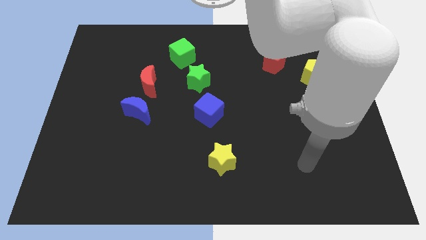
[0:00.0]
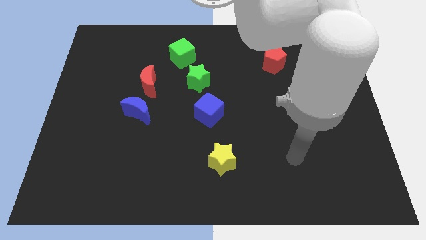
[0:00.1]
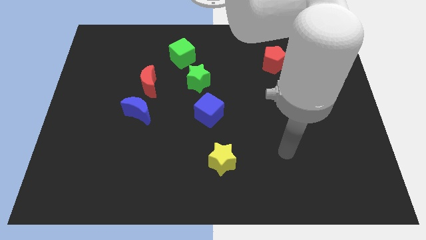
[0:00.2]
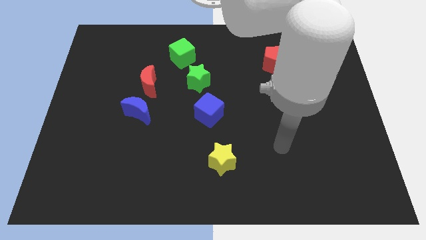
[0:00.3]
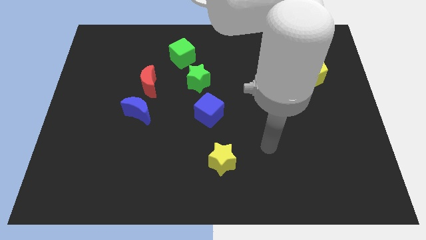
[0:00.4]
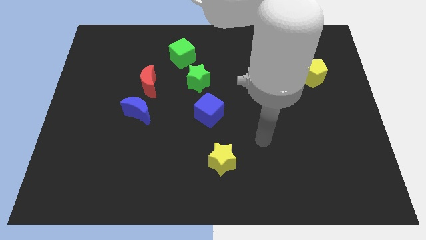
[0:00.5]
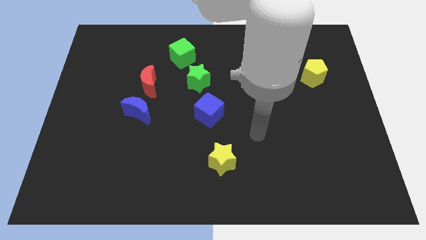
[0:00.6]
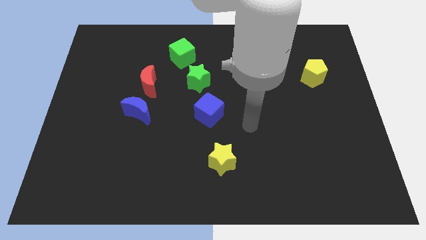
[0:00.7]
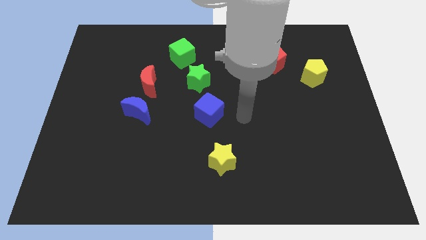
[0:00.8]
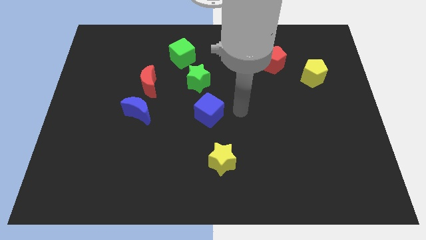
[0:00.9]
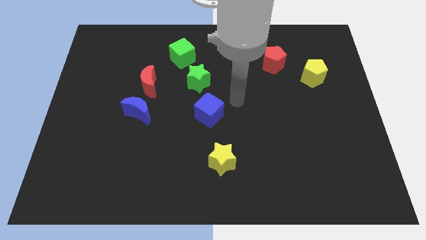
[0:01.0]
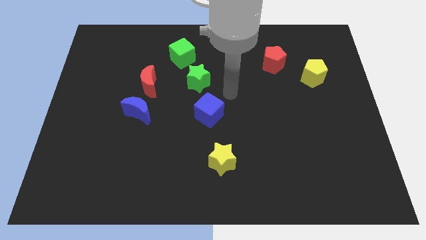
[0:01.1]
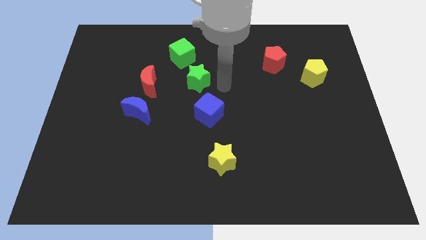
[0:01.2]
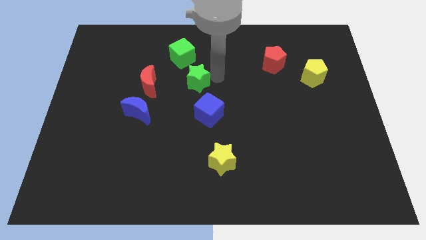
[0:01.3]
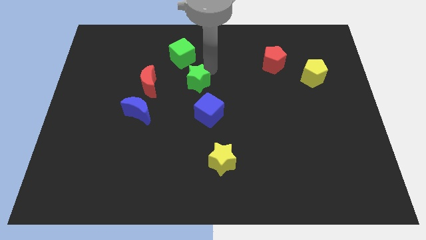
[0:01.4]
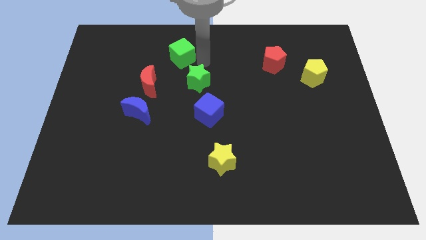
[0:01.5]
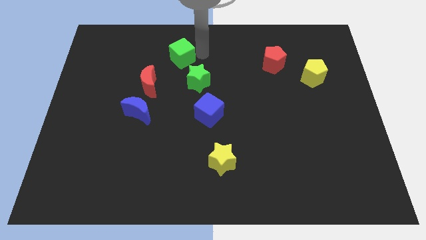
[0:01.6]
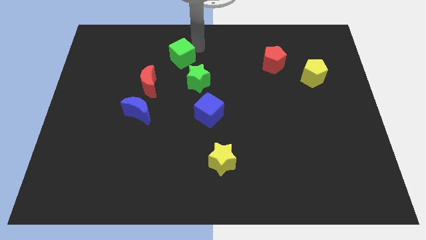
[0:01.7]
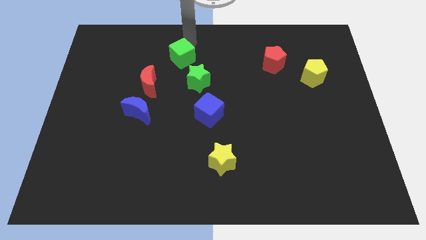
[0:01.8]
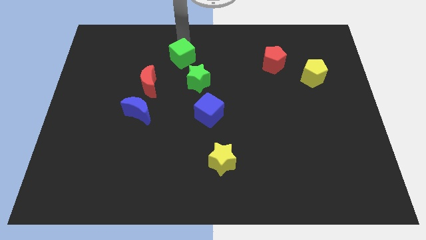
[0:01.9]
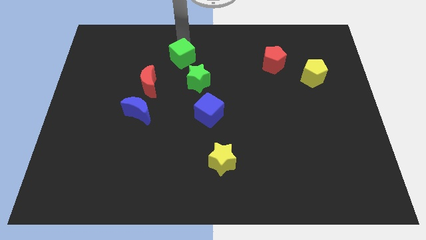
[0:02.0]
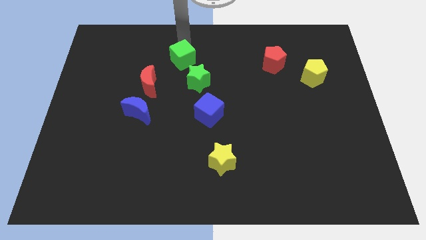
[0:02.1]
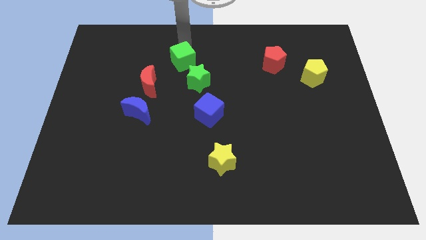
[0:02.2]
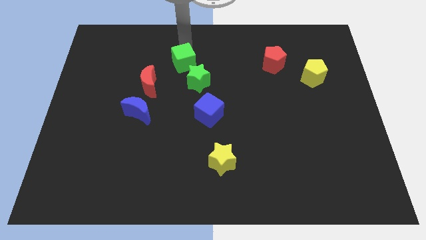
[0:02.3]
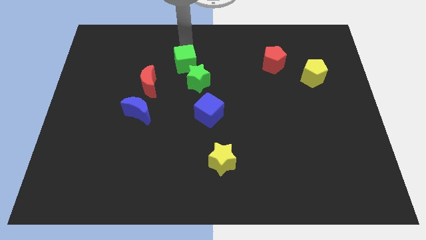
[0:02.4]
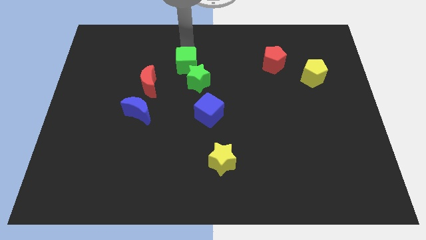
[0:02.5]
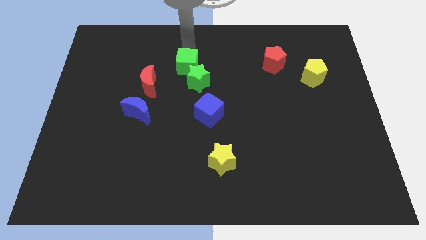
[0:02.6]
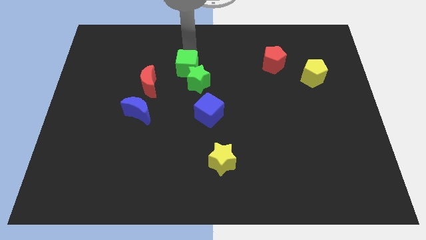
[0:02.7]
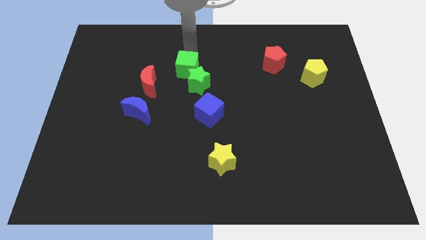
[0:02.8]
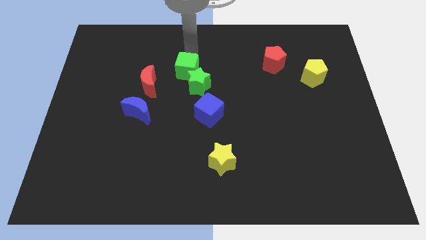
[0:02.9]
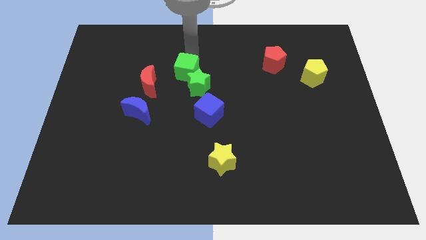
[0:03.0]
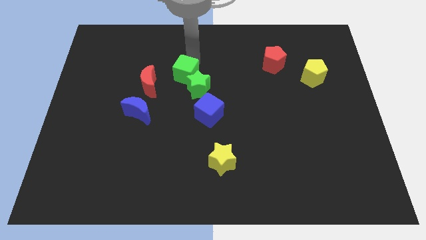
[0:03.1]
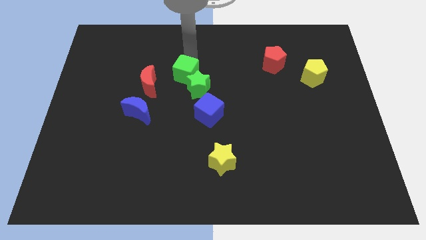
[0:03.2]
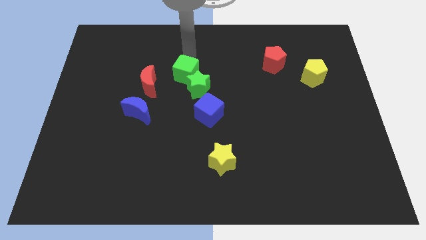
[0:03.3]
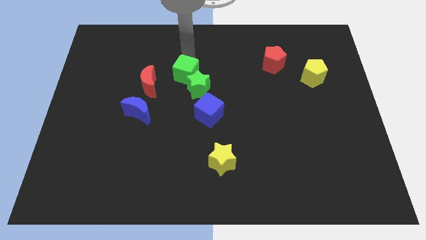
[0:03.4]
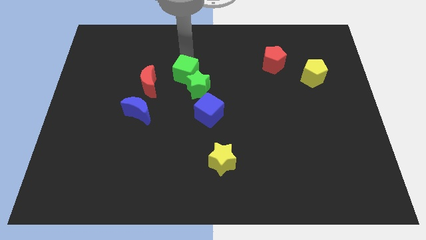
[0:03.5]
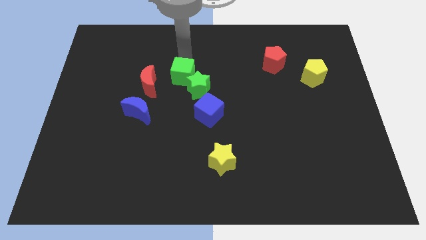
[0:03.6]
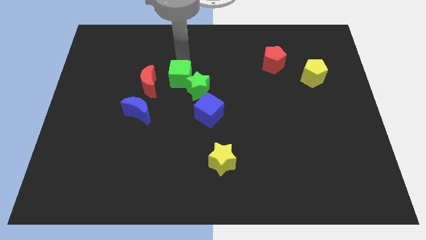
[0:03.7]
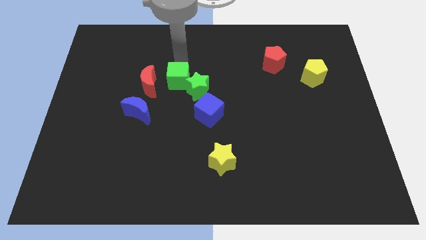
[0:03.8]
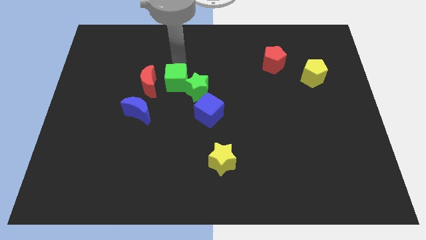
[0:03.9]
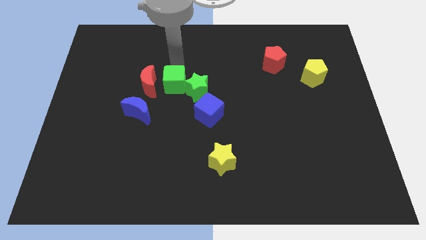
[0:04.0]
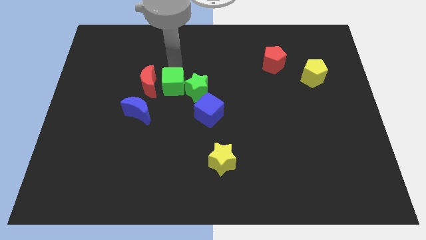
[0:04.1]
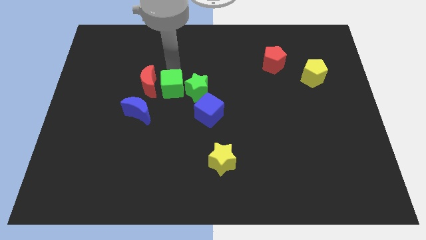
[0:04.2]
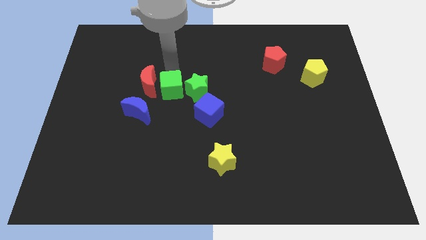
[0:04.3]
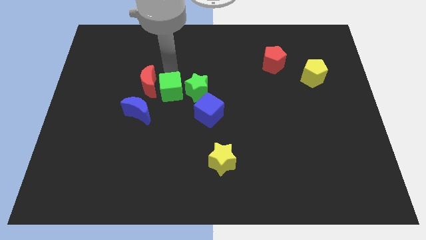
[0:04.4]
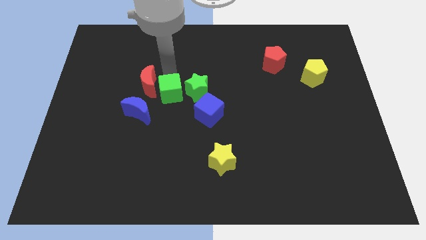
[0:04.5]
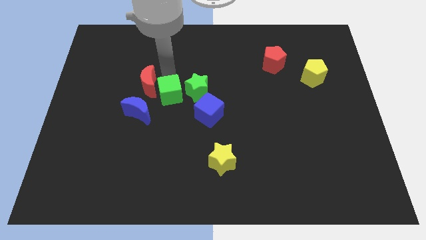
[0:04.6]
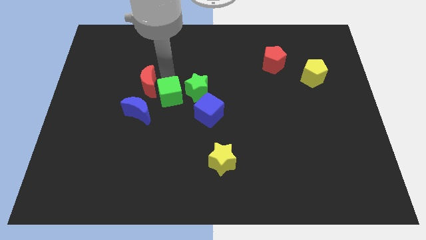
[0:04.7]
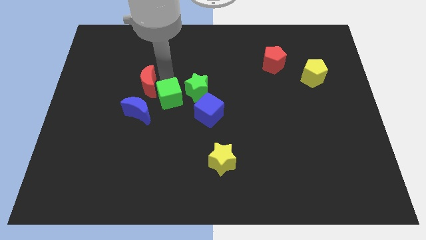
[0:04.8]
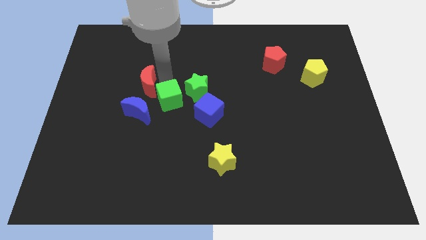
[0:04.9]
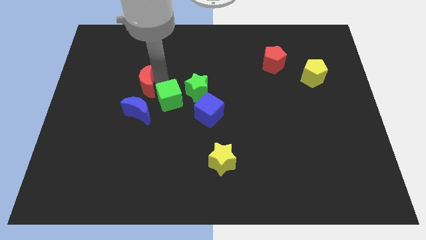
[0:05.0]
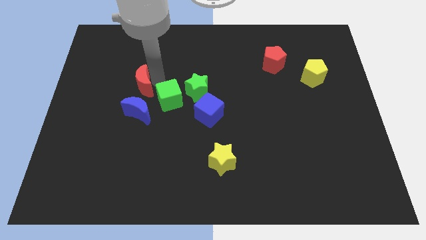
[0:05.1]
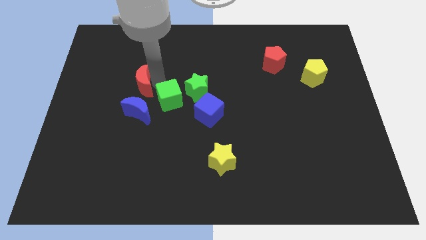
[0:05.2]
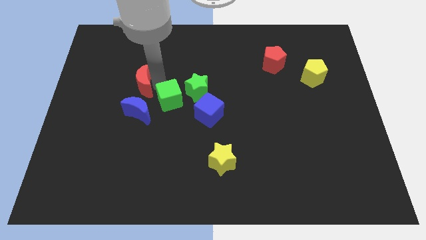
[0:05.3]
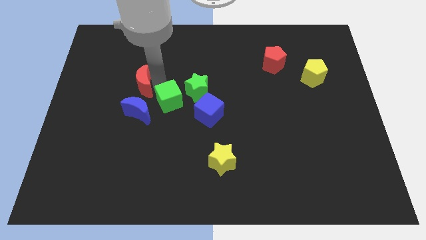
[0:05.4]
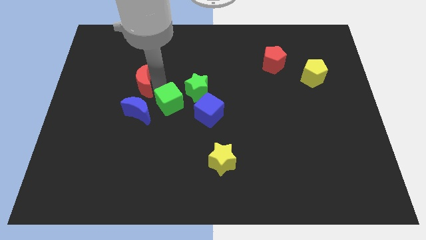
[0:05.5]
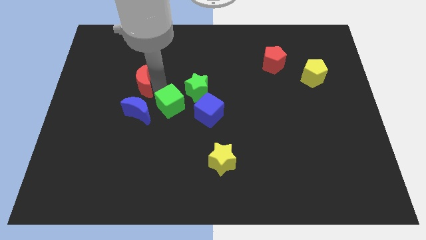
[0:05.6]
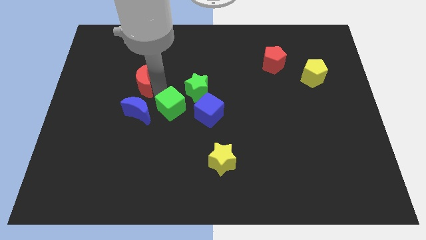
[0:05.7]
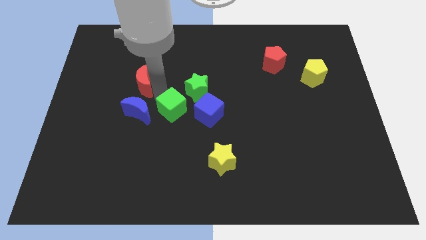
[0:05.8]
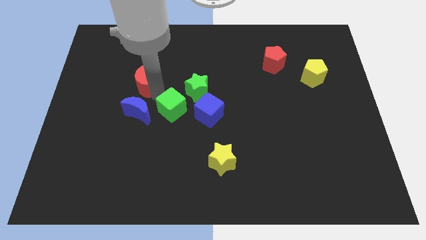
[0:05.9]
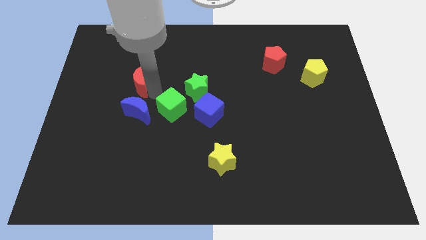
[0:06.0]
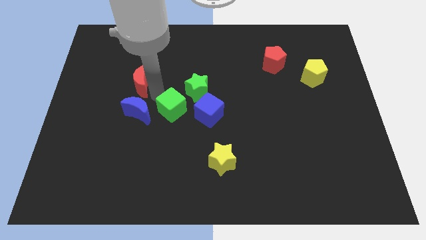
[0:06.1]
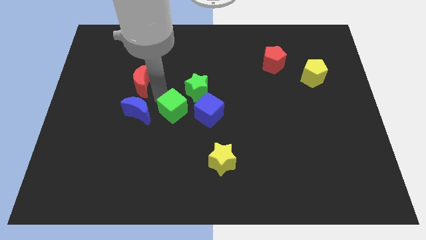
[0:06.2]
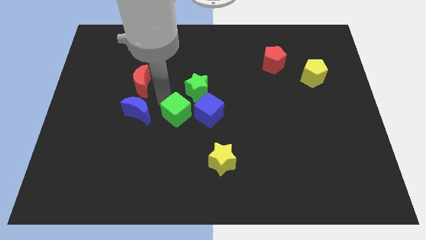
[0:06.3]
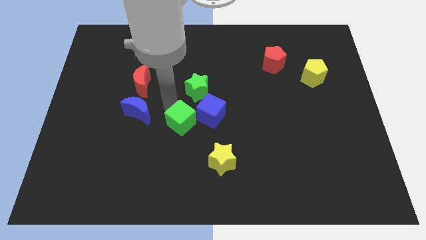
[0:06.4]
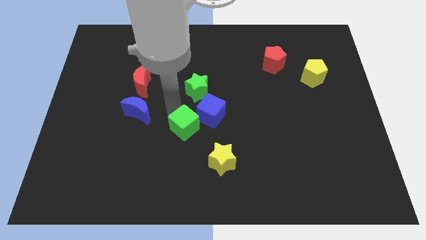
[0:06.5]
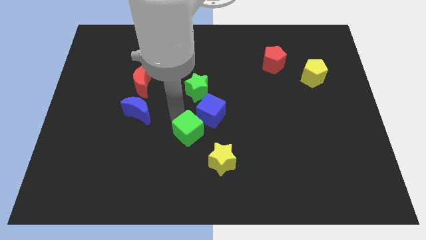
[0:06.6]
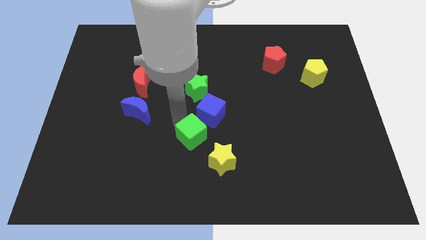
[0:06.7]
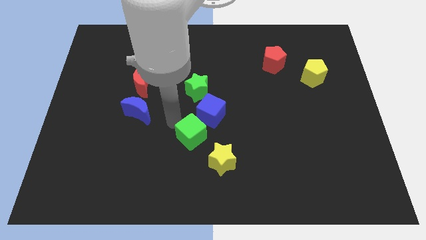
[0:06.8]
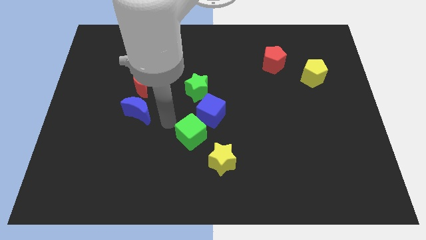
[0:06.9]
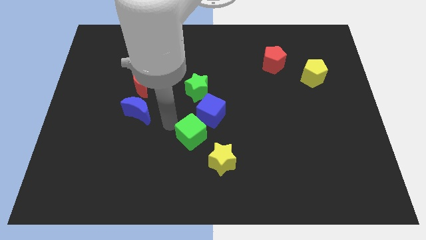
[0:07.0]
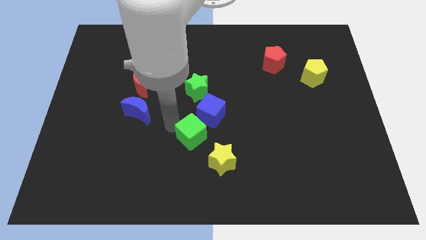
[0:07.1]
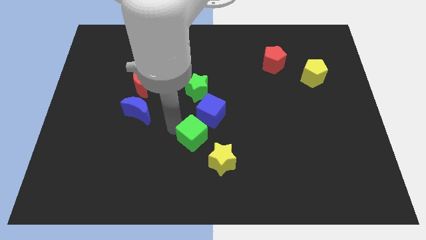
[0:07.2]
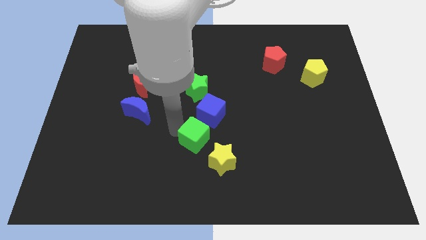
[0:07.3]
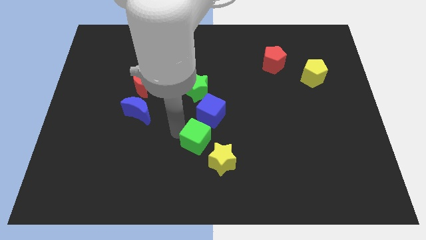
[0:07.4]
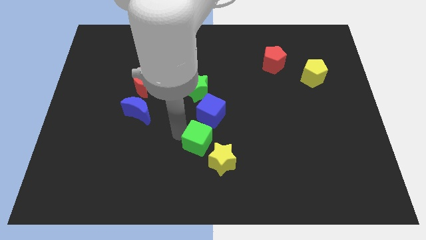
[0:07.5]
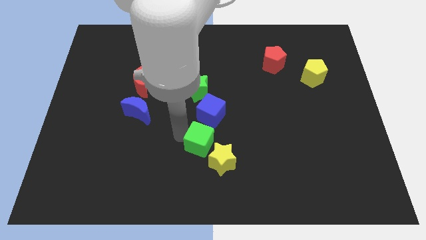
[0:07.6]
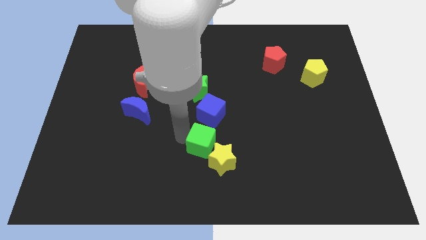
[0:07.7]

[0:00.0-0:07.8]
push the green cube towards the yellow star
